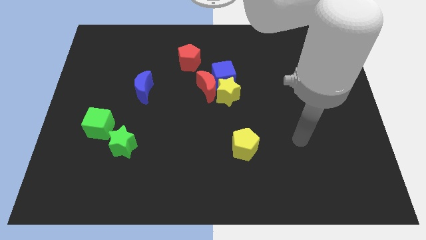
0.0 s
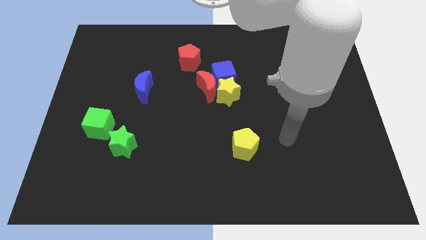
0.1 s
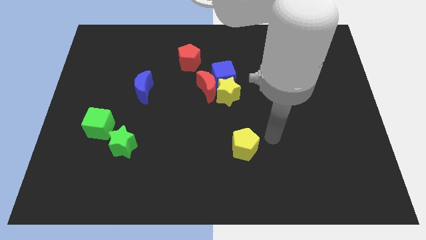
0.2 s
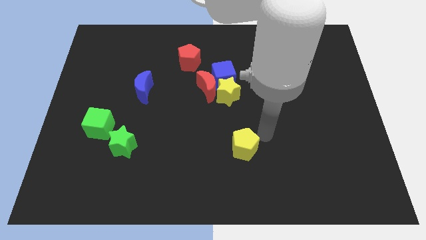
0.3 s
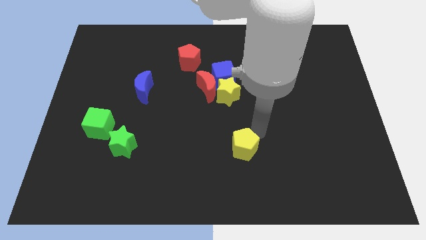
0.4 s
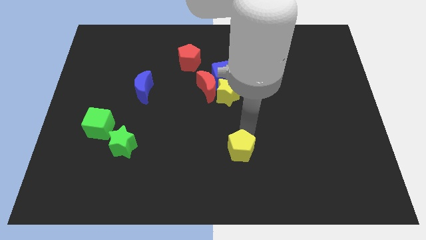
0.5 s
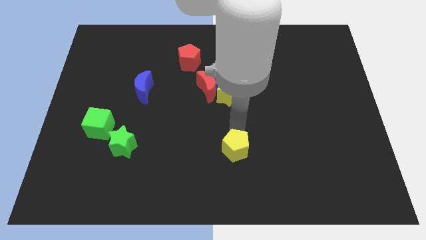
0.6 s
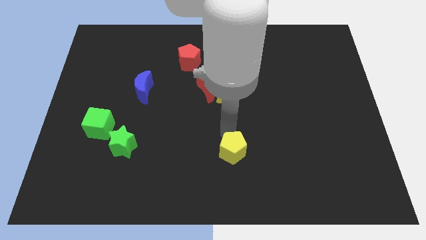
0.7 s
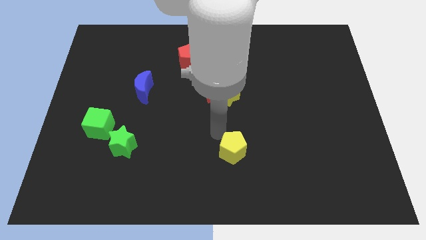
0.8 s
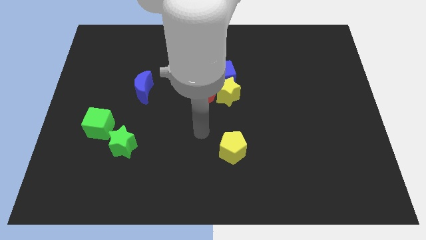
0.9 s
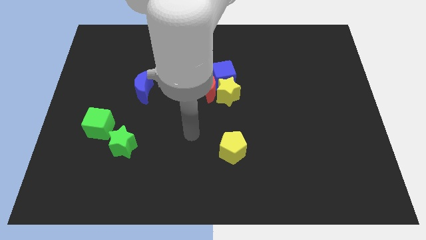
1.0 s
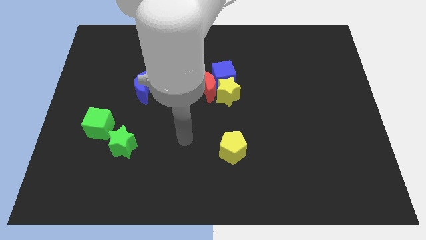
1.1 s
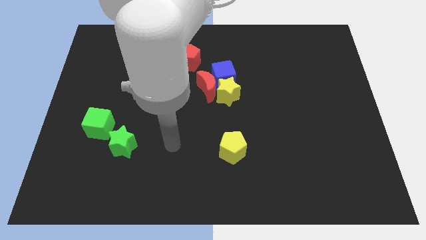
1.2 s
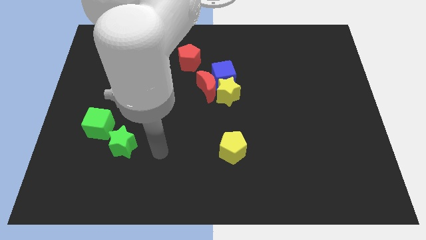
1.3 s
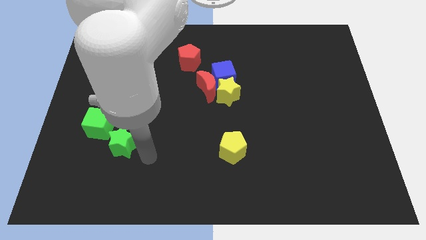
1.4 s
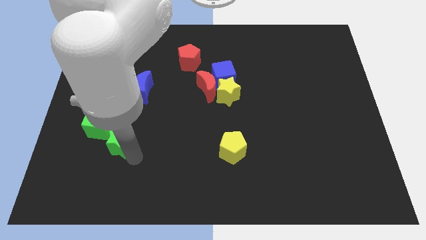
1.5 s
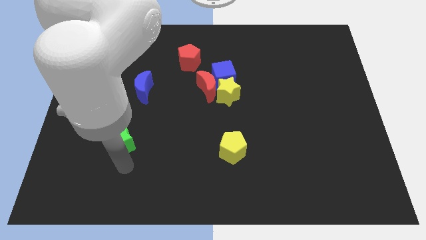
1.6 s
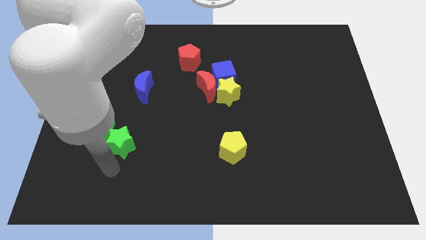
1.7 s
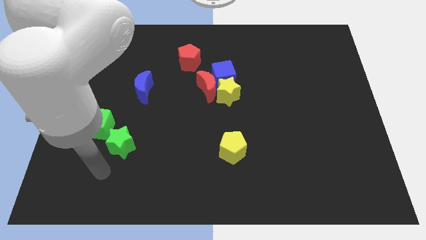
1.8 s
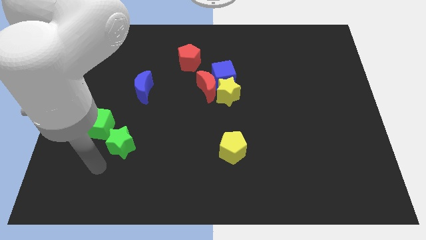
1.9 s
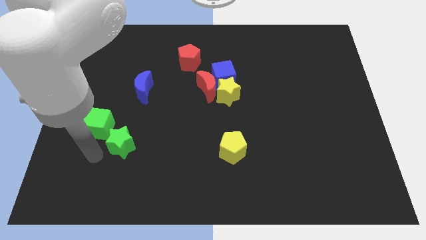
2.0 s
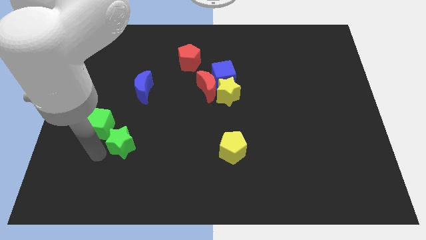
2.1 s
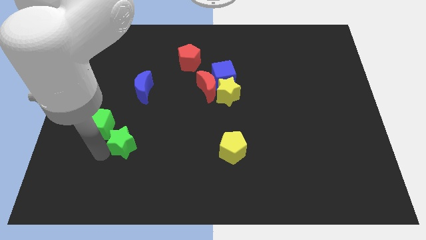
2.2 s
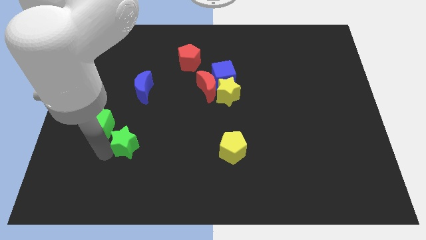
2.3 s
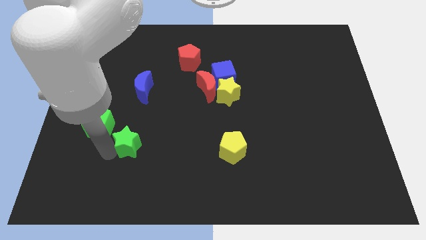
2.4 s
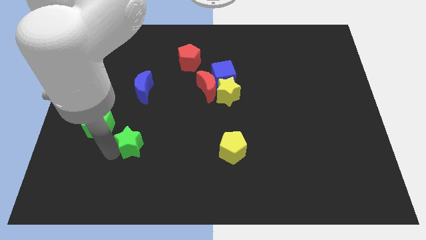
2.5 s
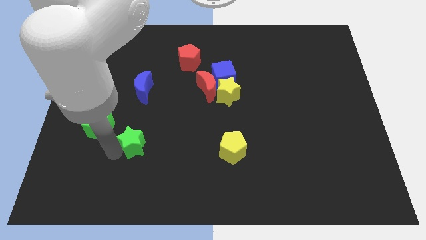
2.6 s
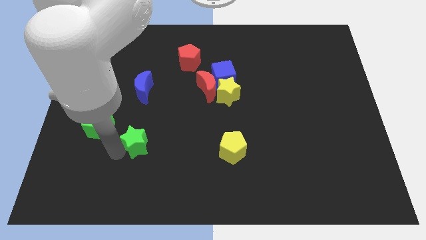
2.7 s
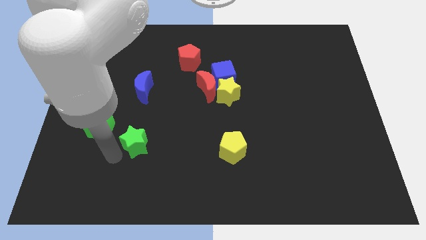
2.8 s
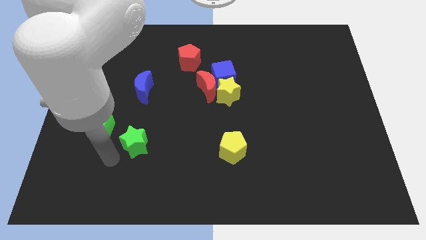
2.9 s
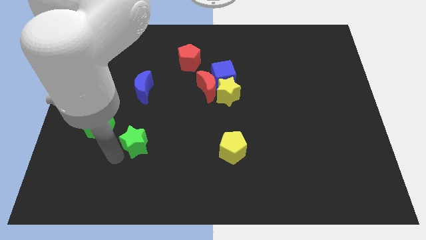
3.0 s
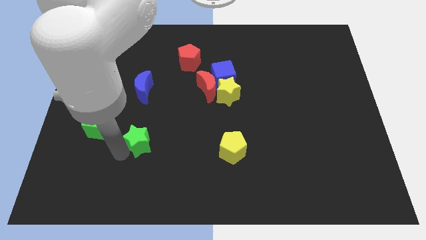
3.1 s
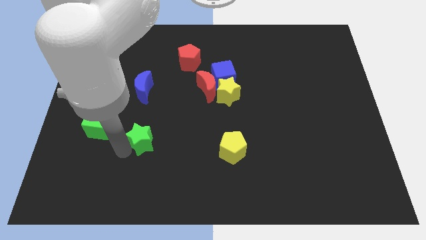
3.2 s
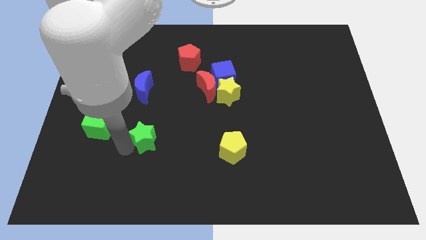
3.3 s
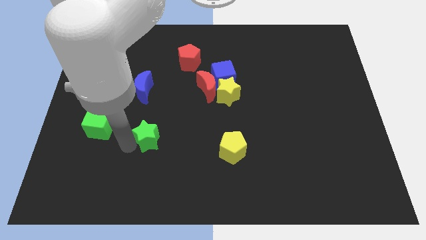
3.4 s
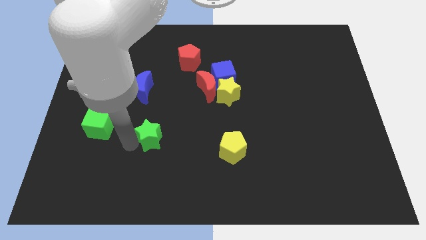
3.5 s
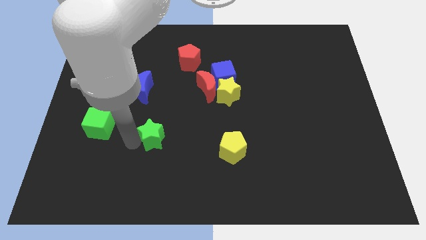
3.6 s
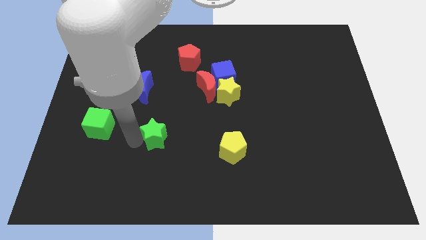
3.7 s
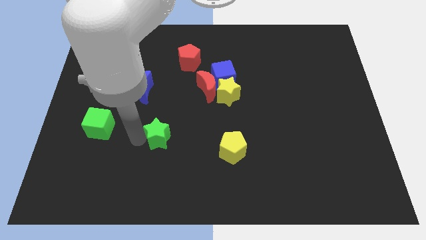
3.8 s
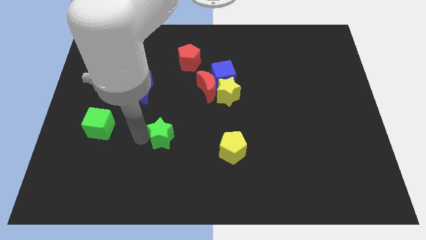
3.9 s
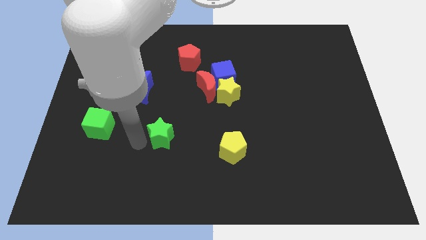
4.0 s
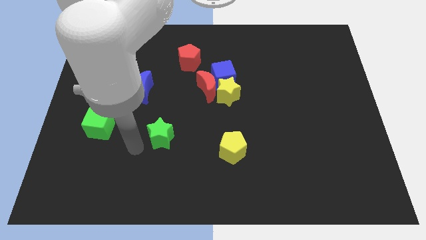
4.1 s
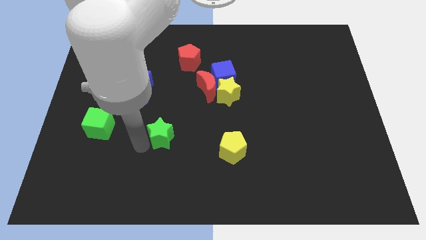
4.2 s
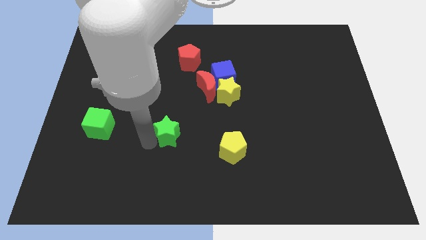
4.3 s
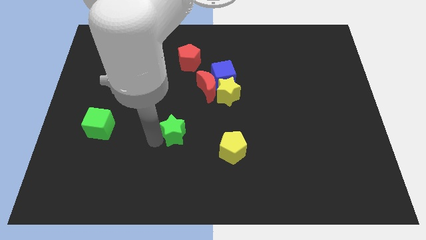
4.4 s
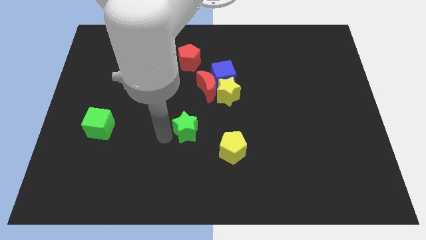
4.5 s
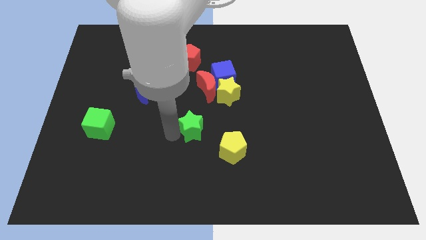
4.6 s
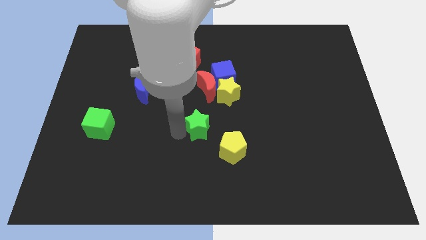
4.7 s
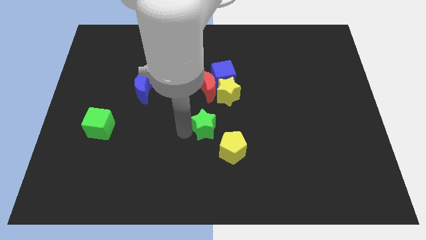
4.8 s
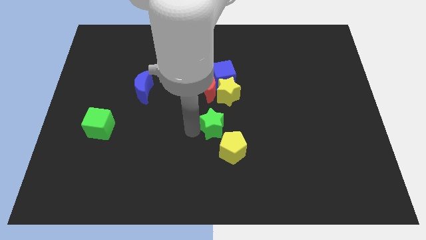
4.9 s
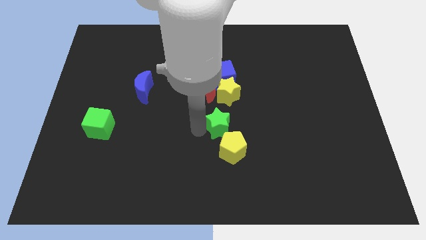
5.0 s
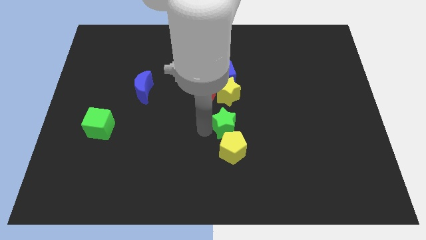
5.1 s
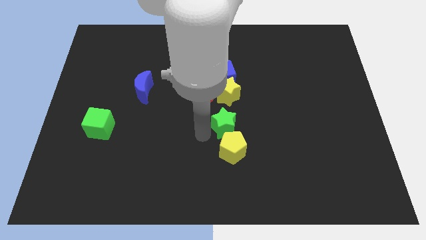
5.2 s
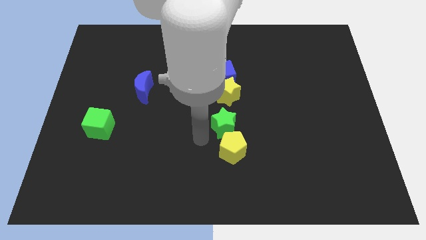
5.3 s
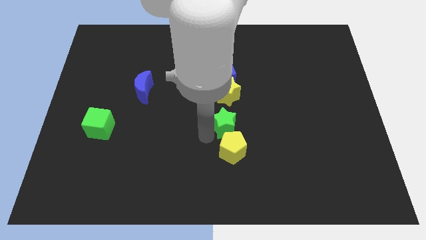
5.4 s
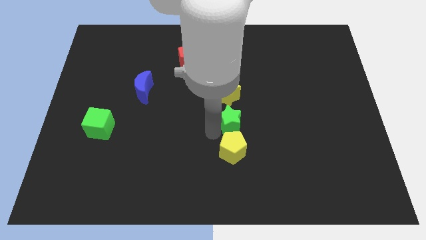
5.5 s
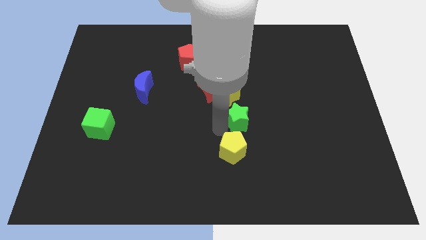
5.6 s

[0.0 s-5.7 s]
slide the green star diagonally down and to the right of the yellow star

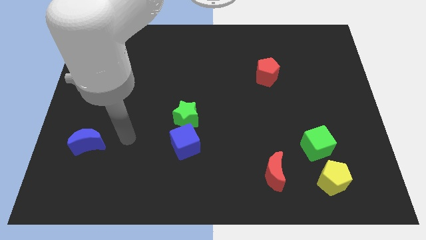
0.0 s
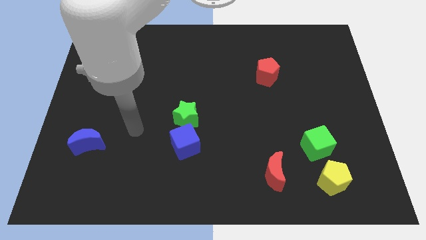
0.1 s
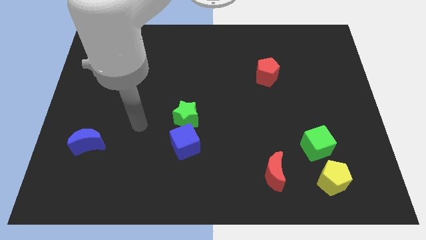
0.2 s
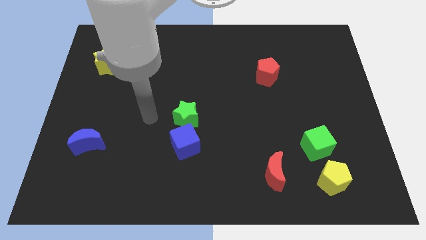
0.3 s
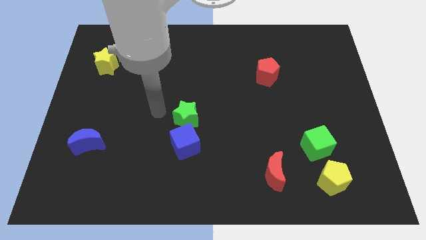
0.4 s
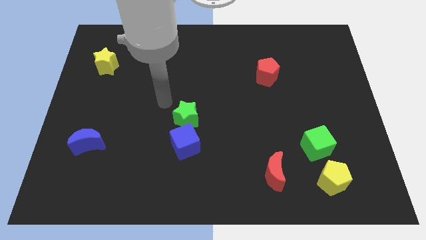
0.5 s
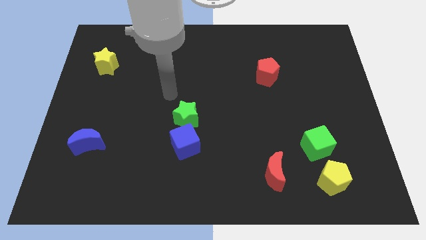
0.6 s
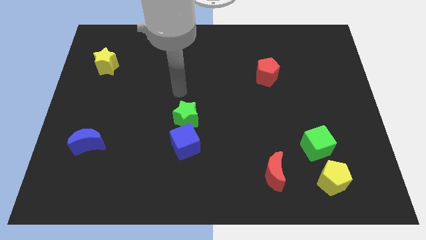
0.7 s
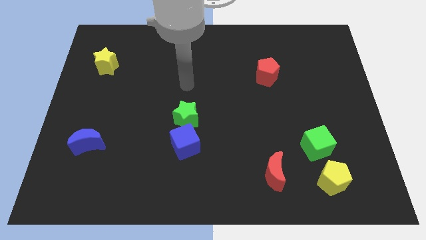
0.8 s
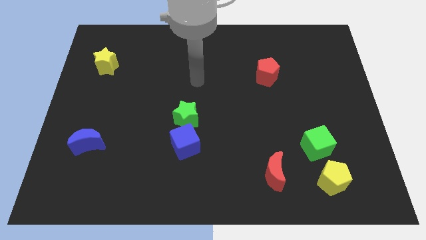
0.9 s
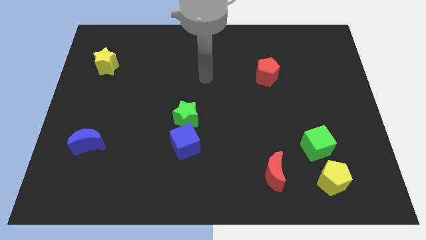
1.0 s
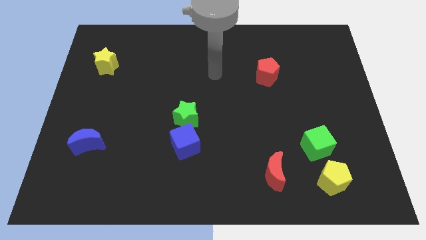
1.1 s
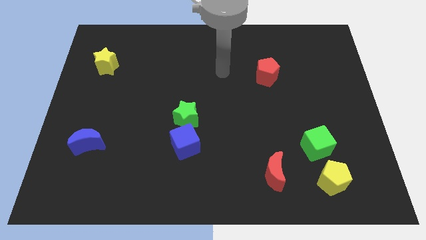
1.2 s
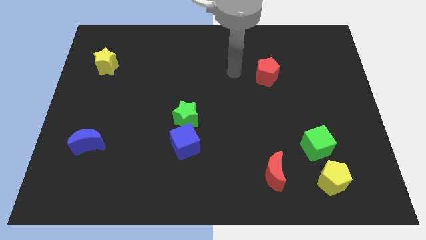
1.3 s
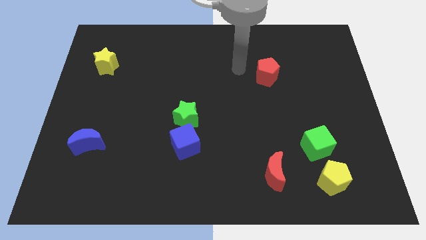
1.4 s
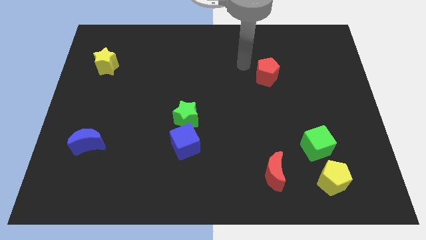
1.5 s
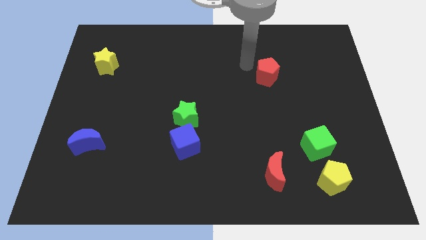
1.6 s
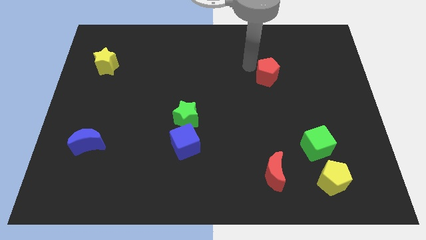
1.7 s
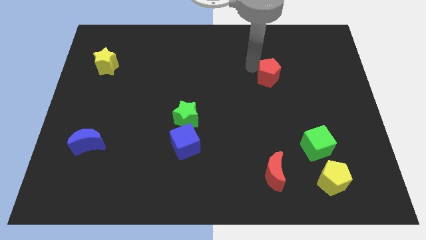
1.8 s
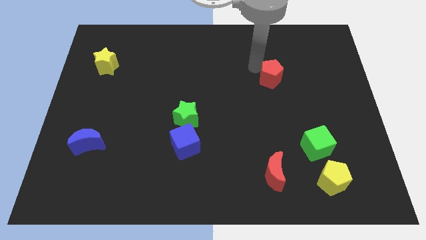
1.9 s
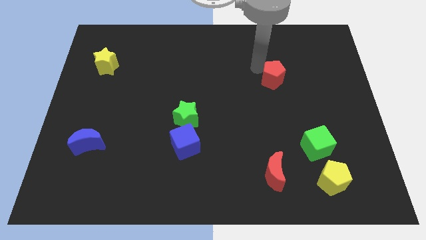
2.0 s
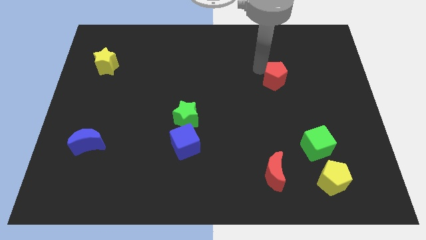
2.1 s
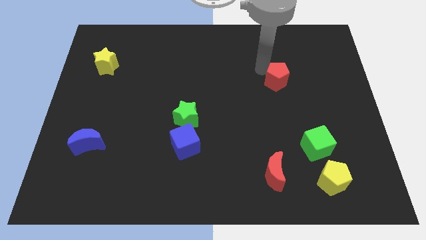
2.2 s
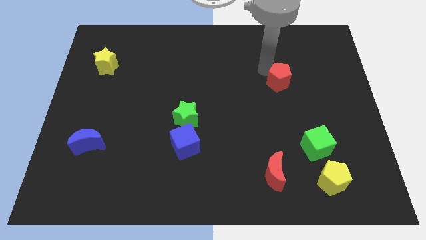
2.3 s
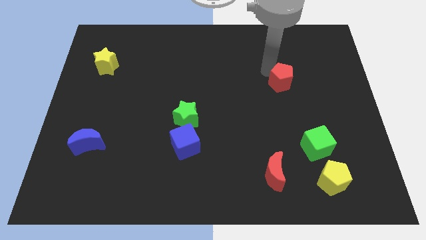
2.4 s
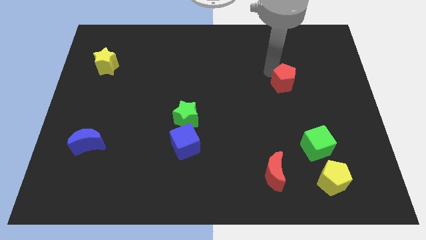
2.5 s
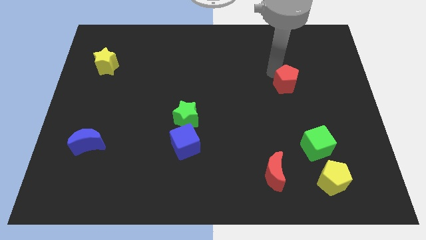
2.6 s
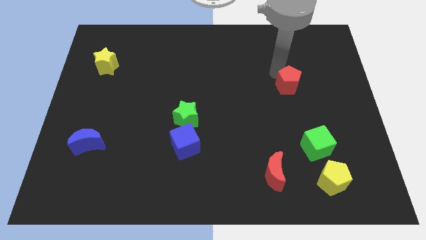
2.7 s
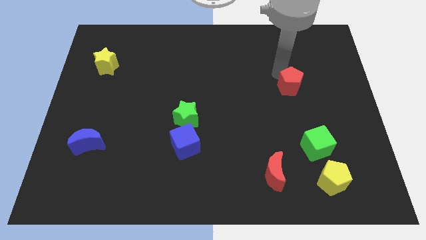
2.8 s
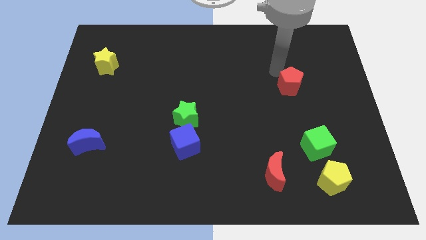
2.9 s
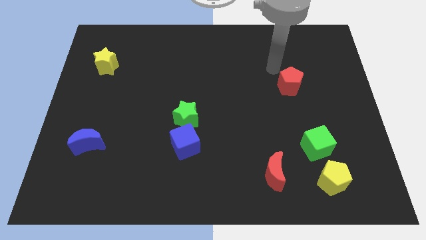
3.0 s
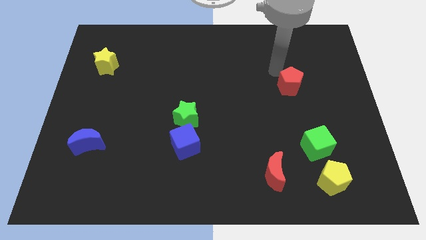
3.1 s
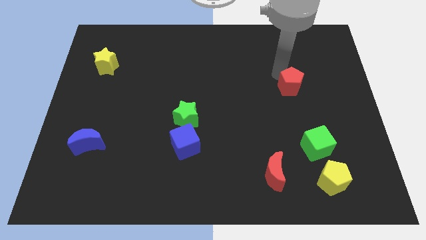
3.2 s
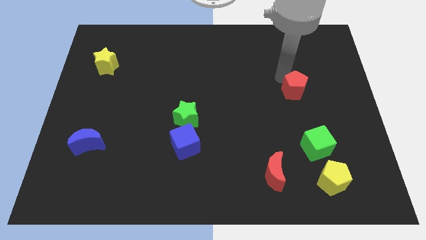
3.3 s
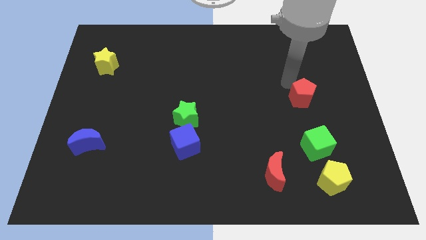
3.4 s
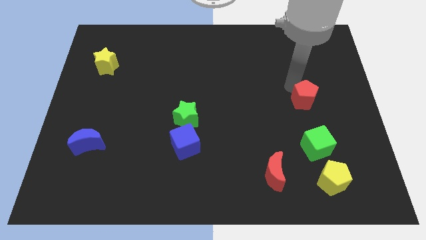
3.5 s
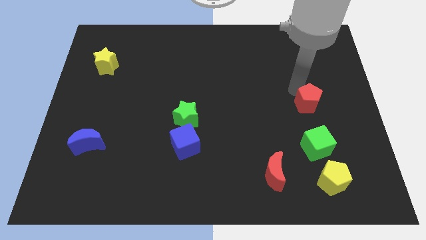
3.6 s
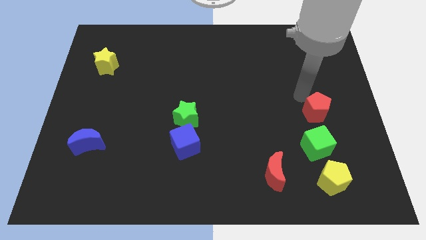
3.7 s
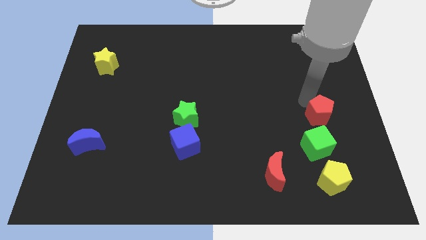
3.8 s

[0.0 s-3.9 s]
move the red pentagon diagonally up and to the right of the green cube
